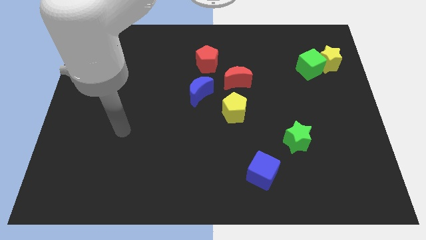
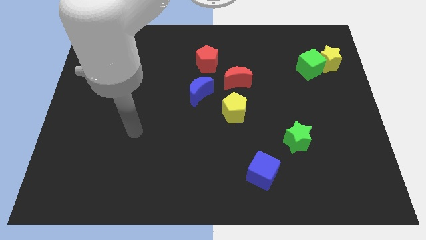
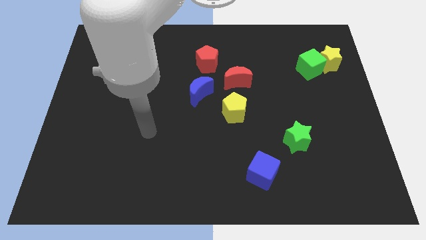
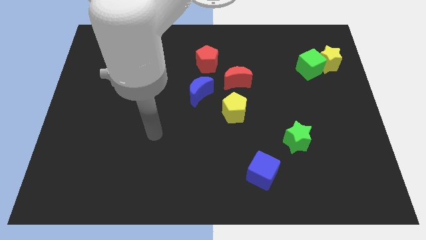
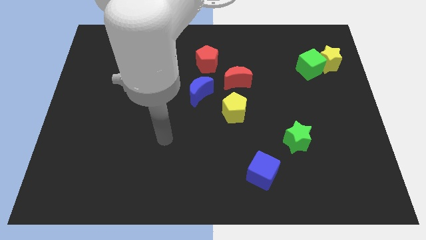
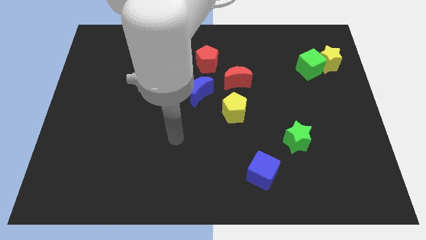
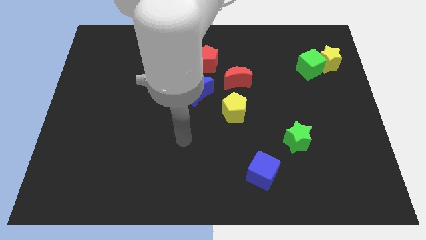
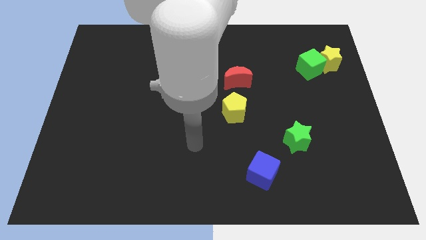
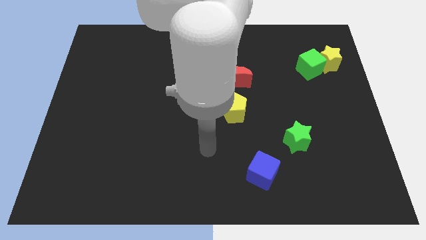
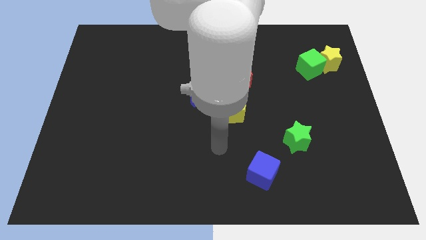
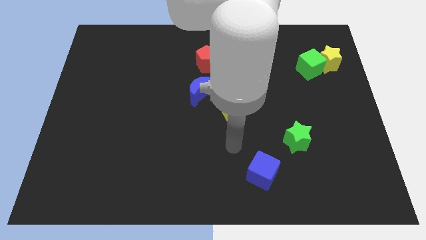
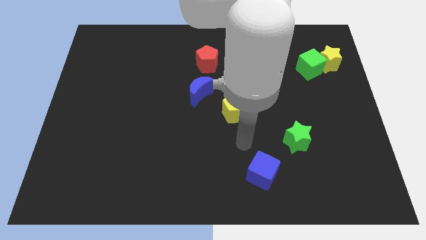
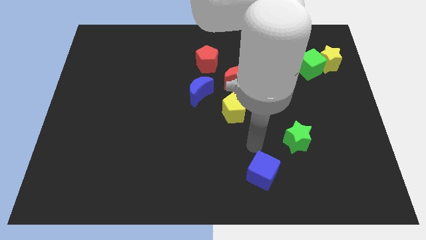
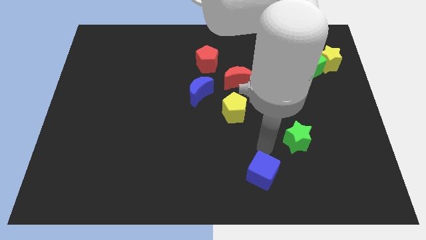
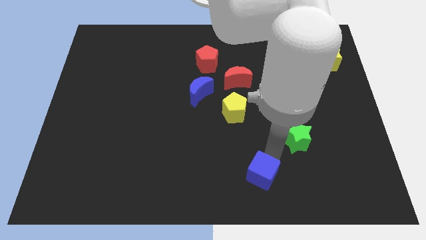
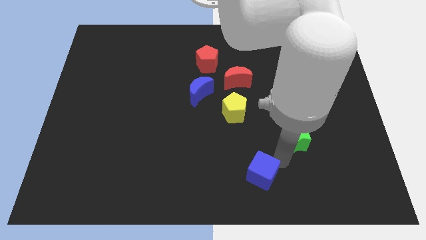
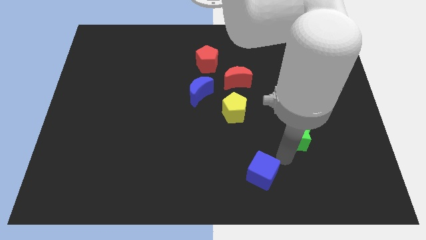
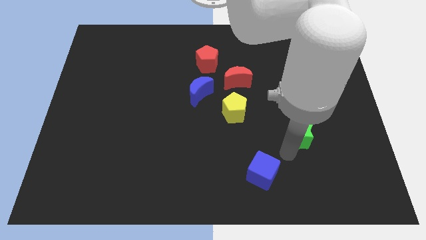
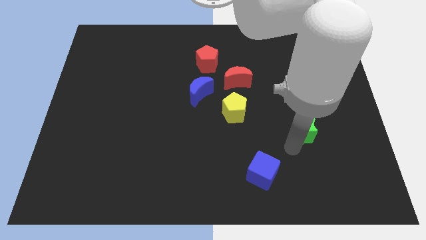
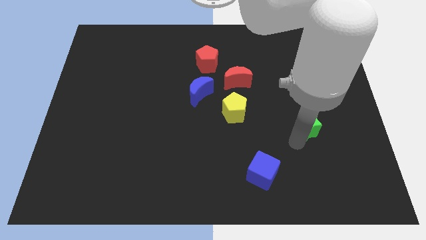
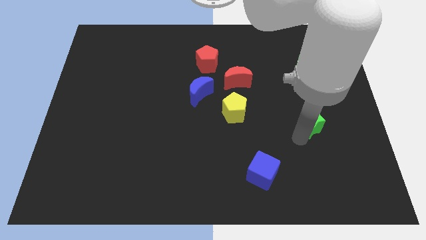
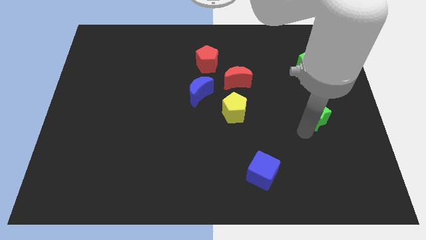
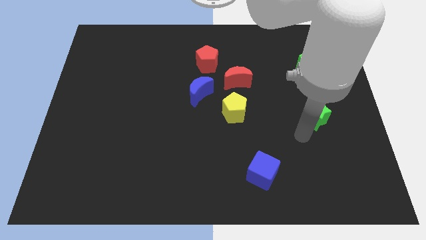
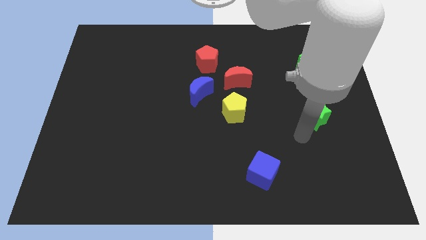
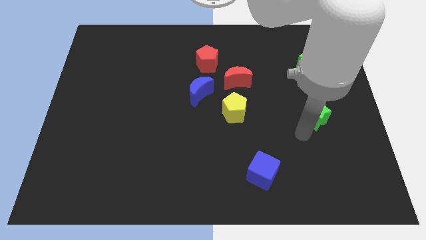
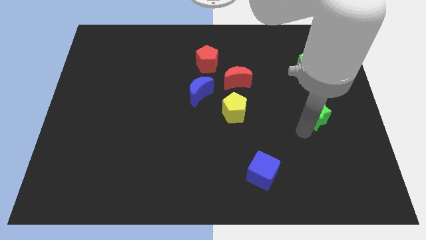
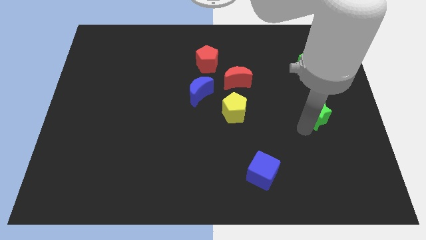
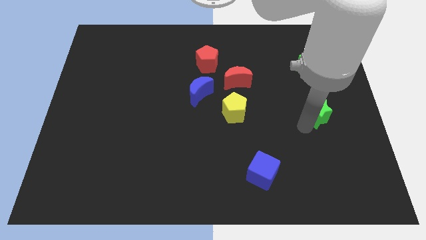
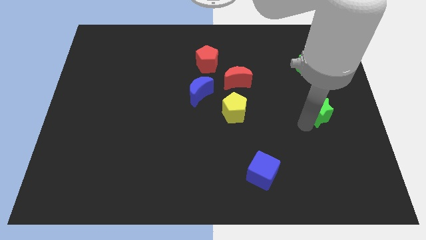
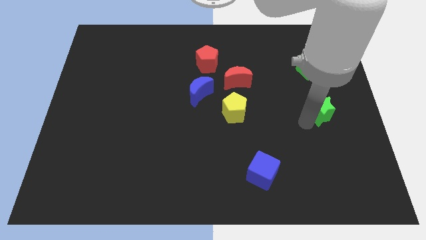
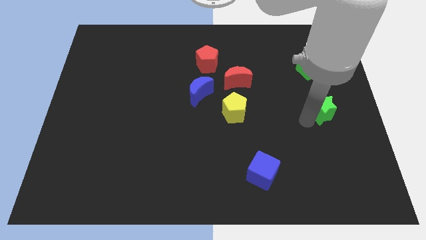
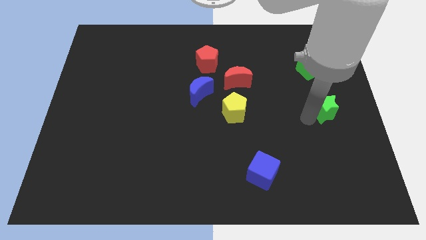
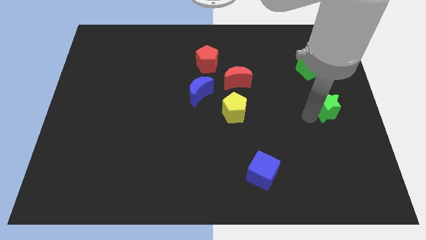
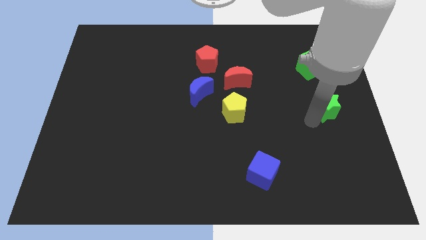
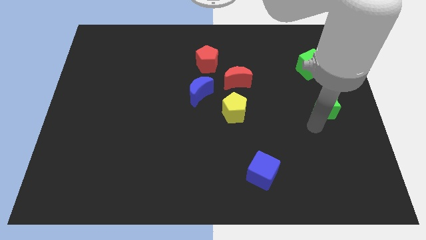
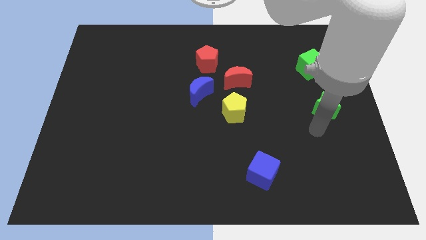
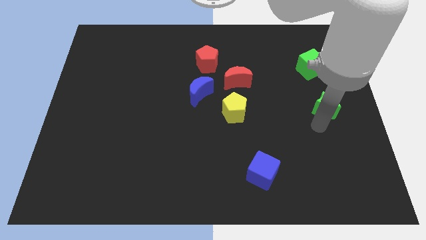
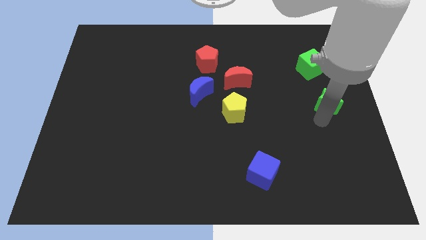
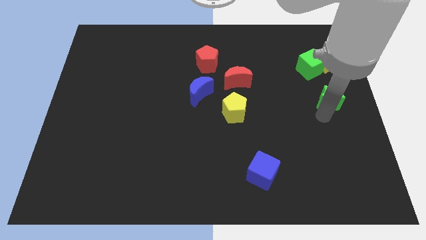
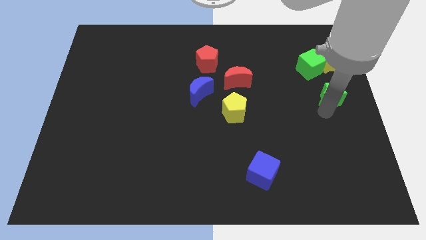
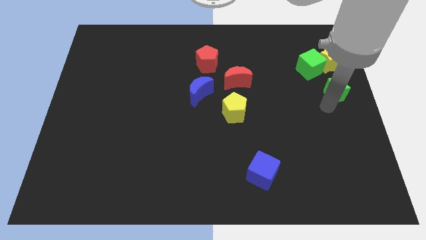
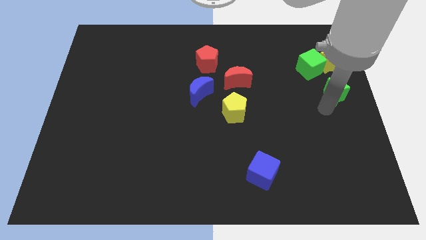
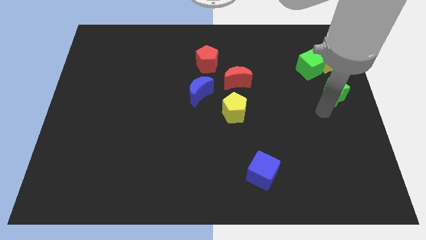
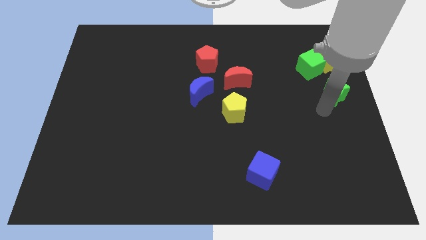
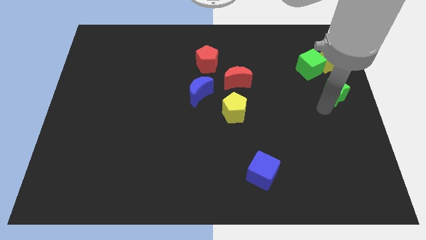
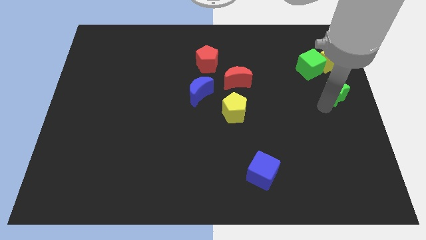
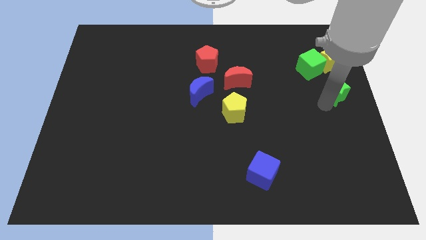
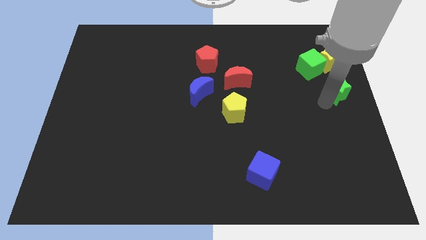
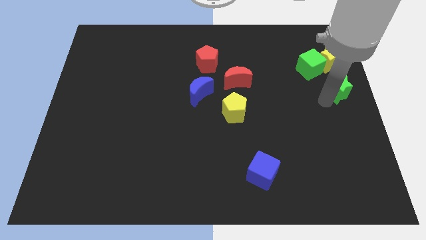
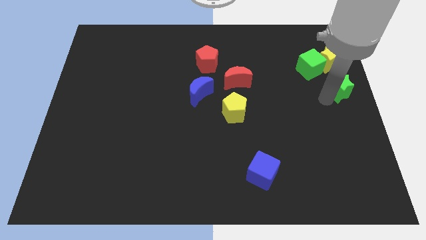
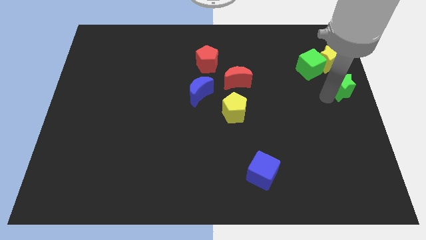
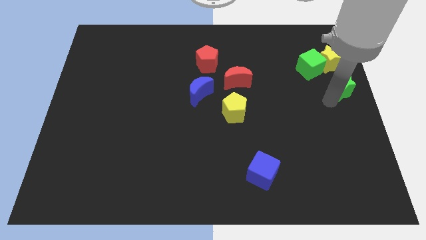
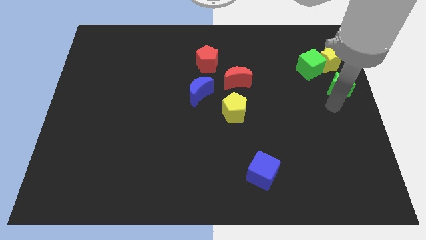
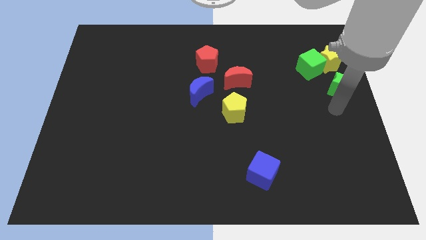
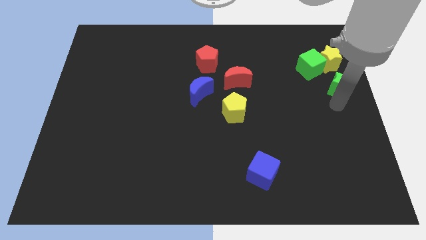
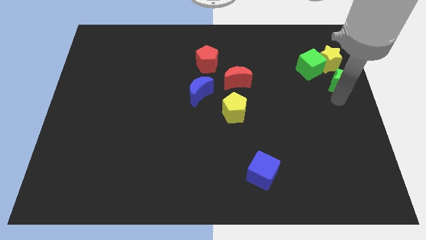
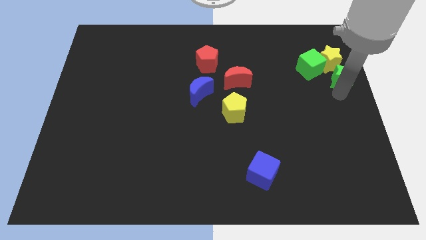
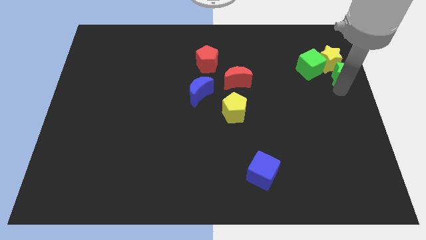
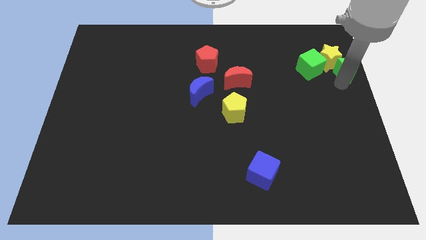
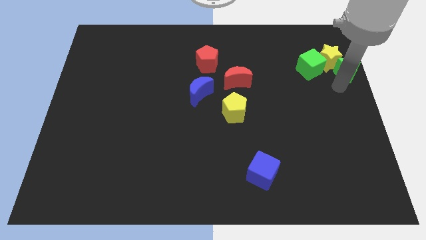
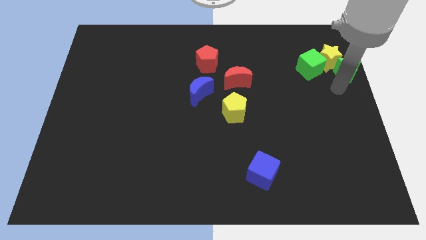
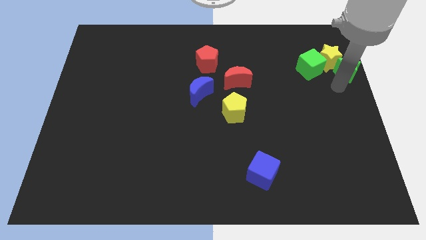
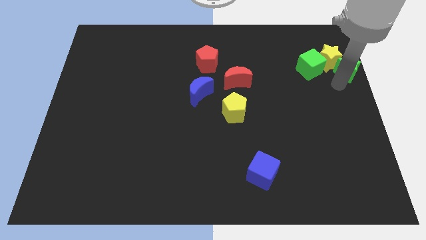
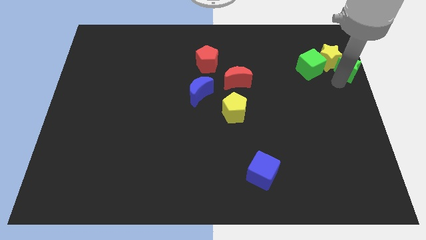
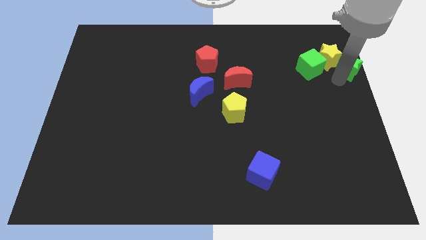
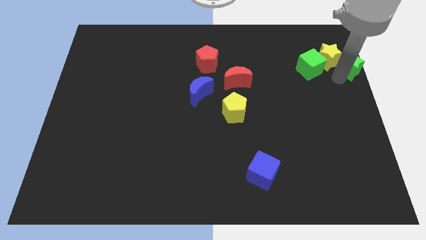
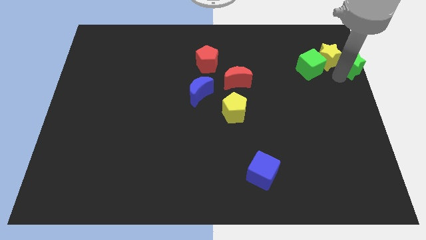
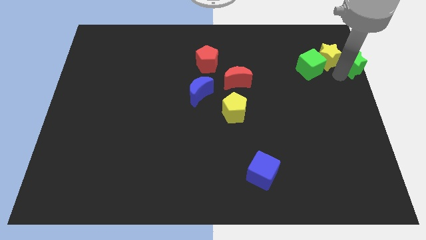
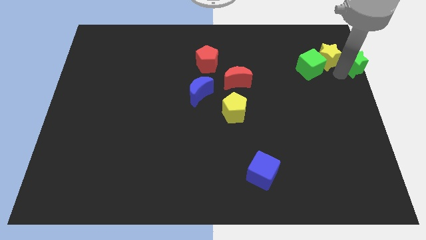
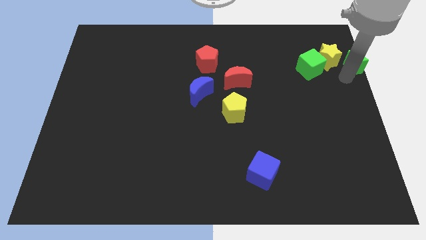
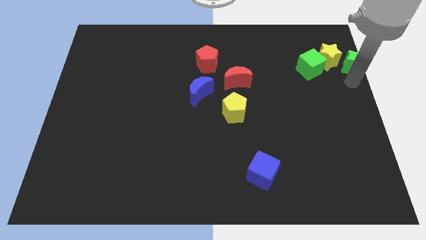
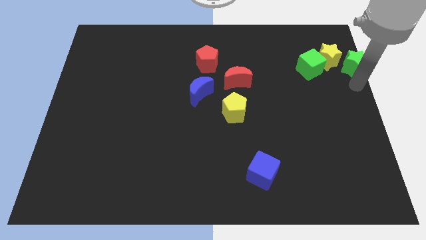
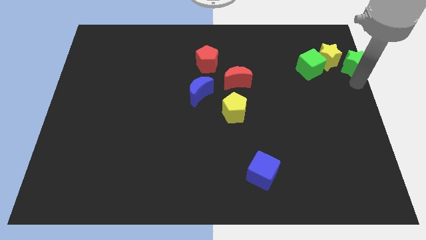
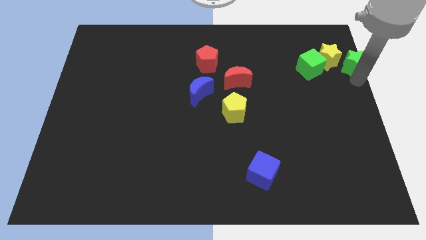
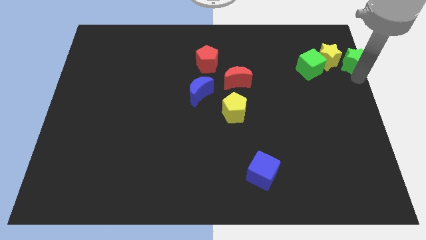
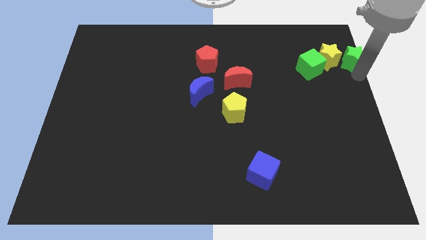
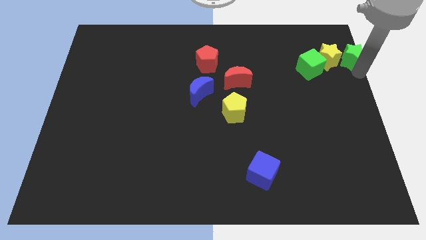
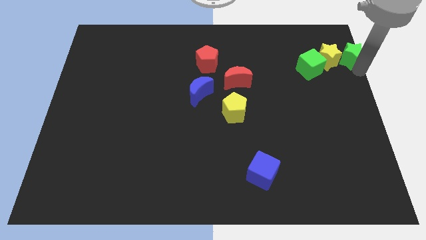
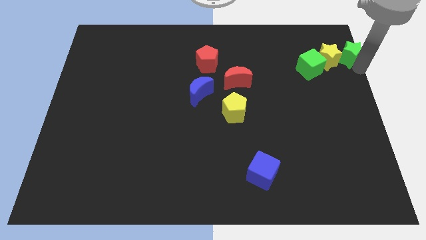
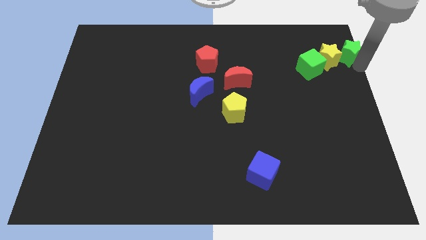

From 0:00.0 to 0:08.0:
put the green star to the top right of the board
